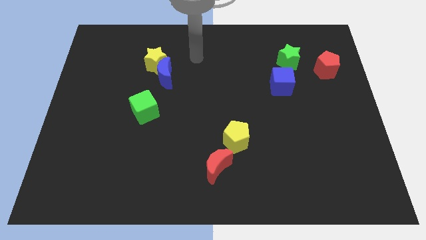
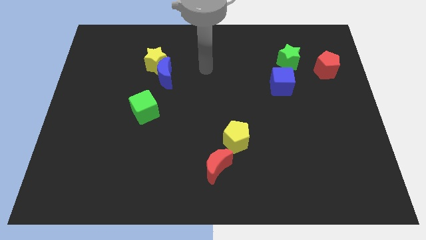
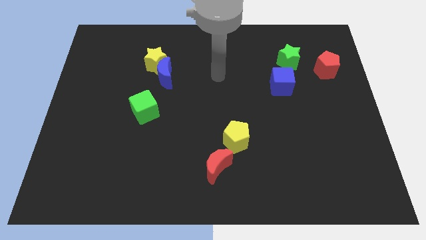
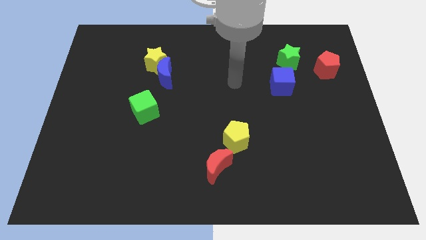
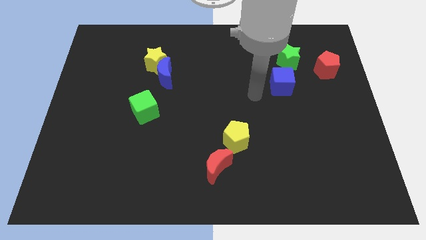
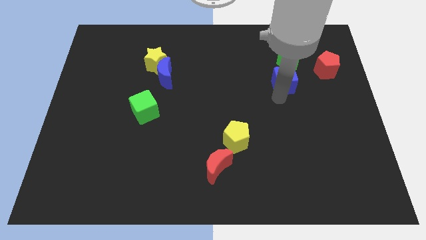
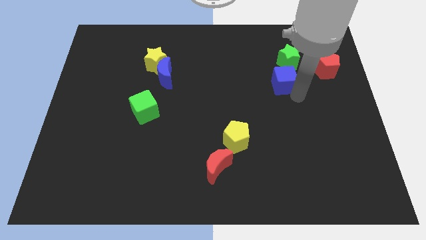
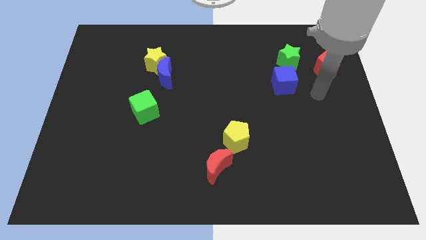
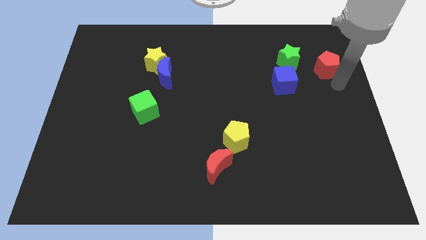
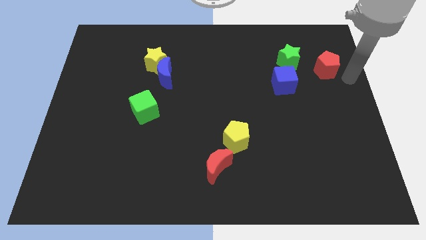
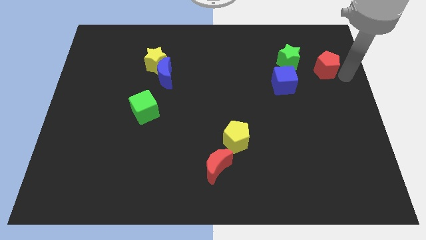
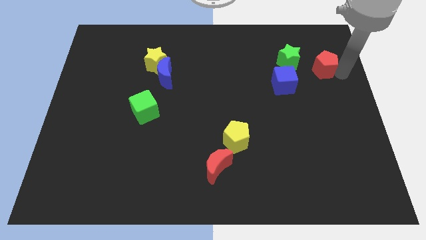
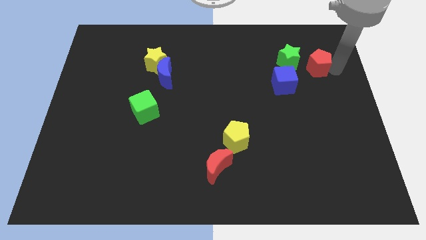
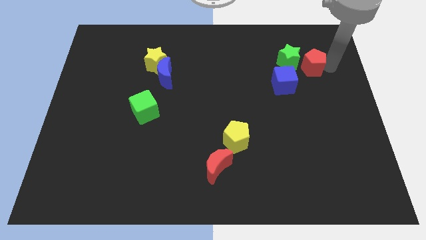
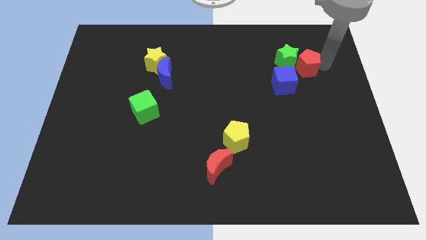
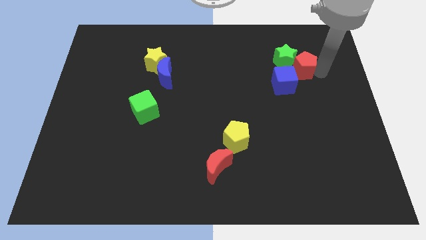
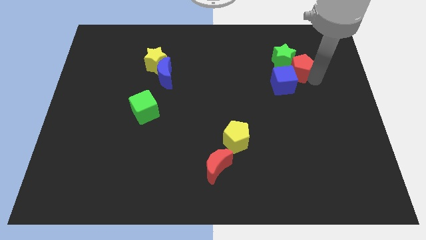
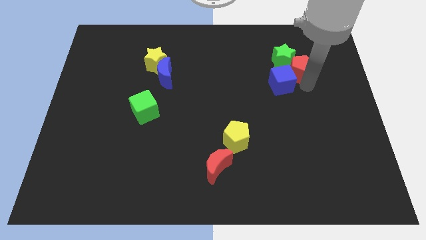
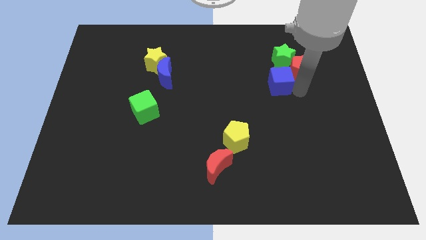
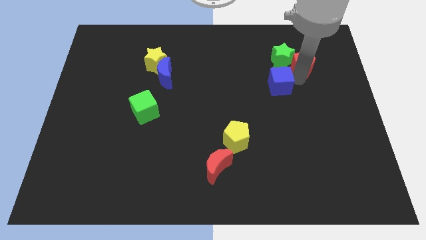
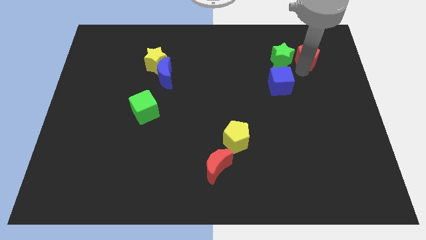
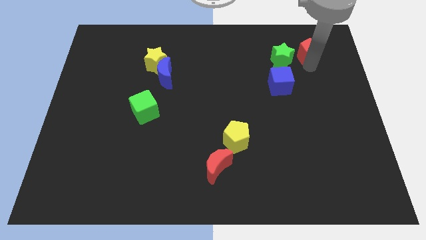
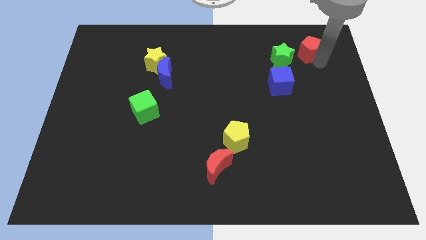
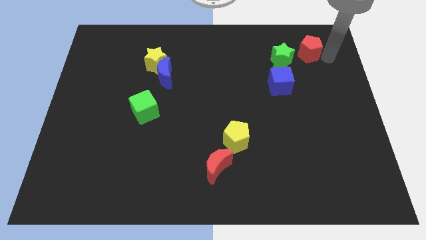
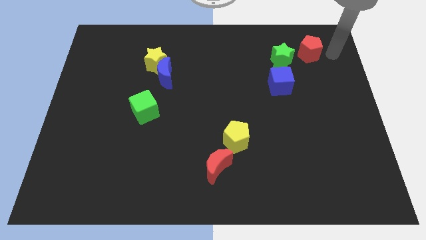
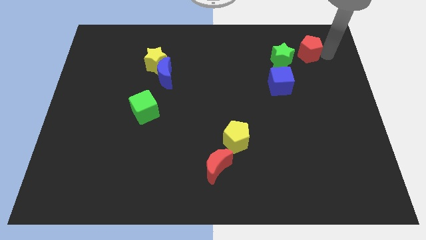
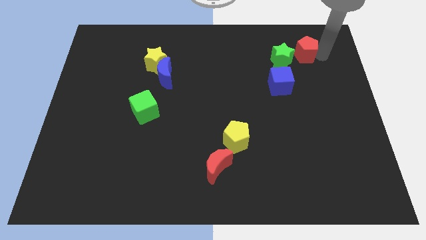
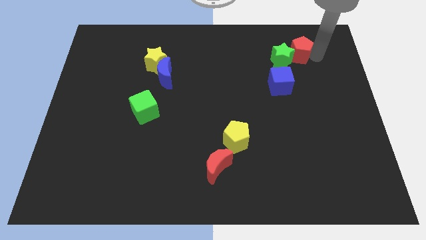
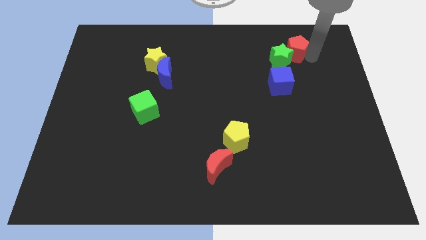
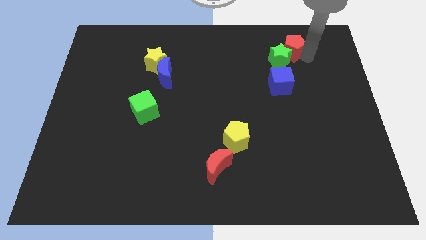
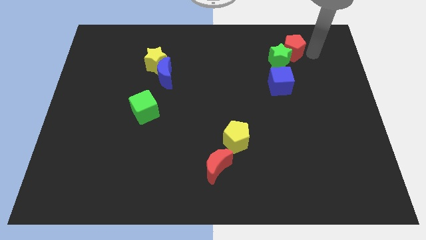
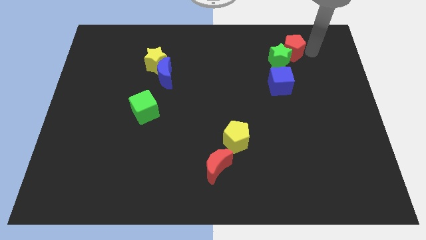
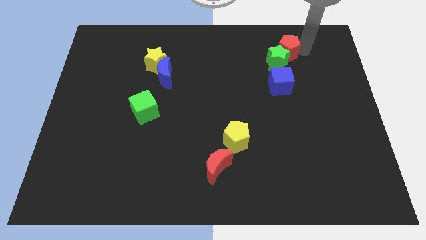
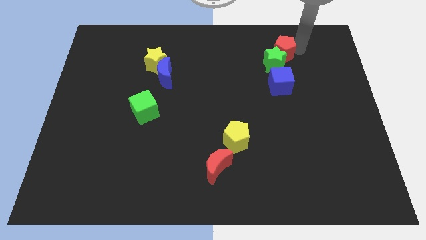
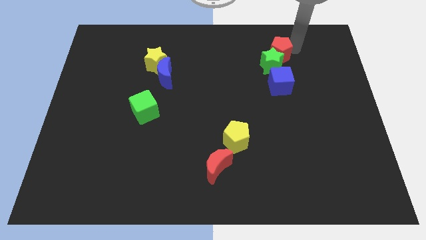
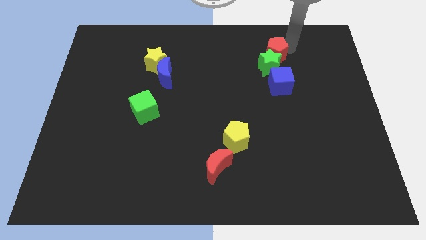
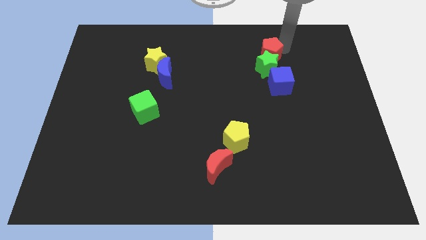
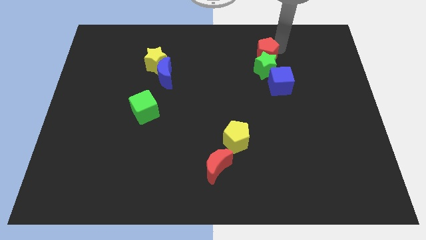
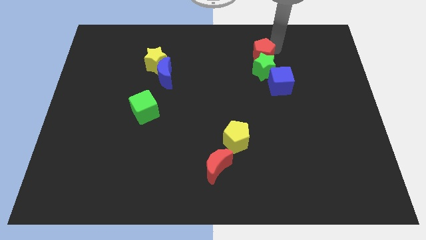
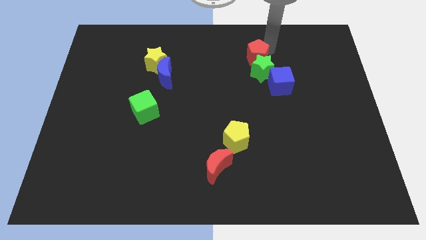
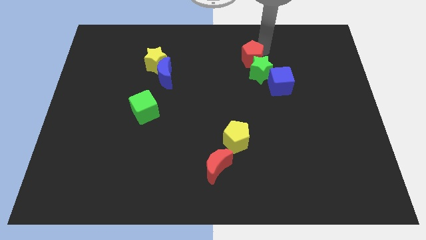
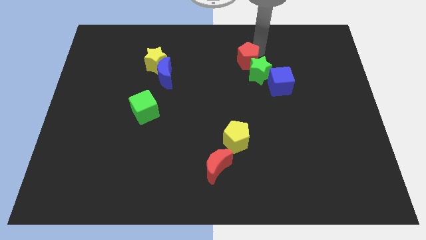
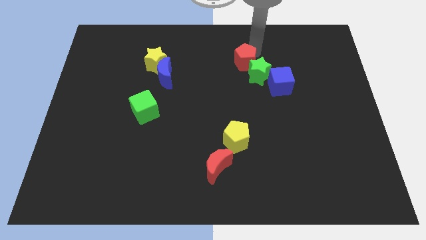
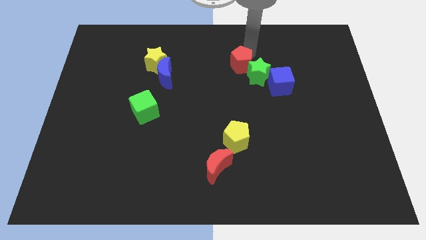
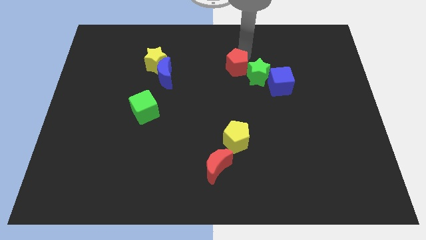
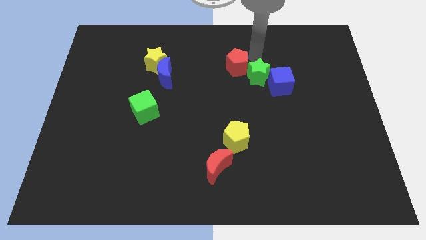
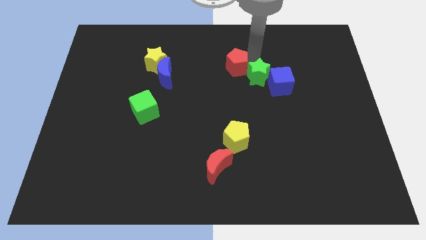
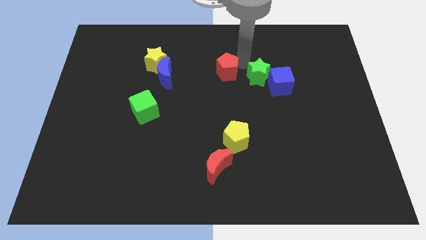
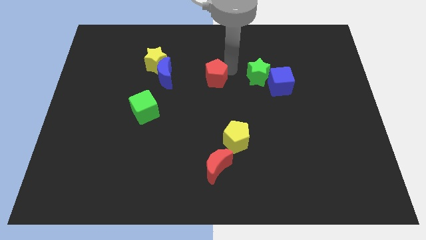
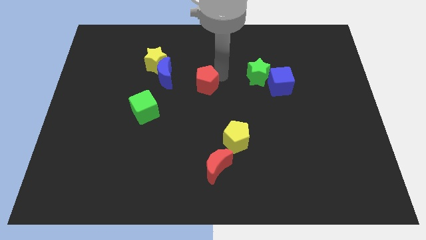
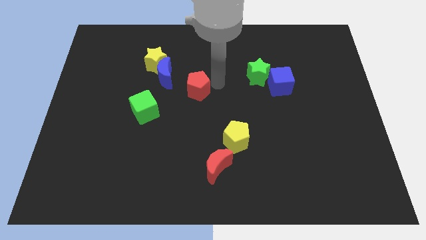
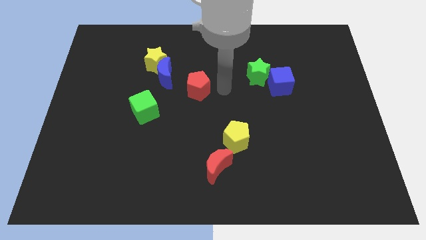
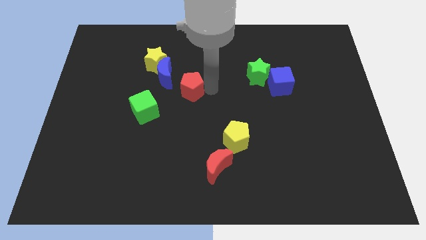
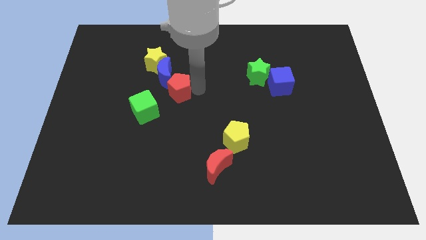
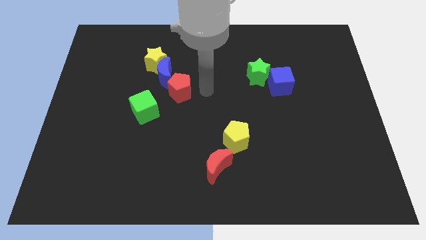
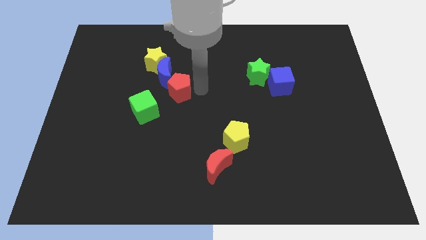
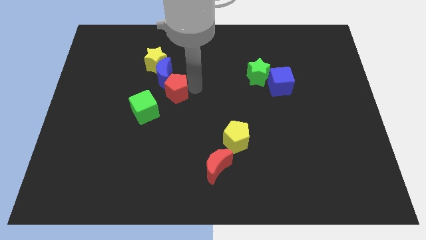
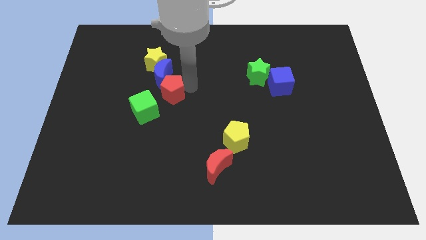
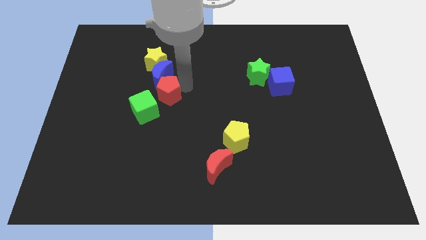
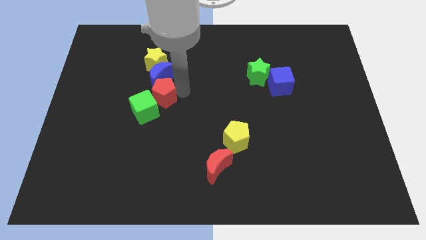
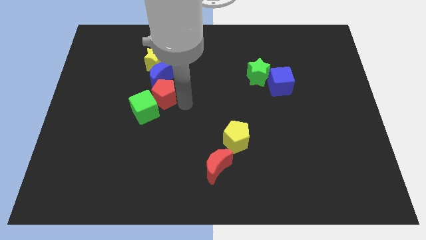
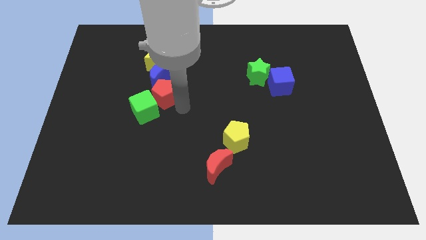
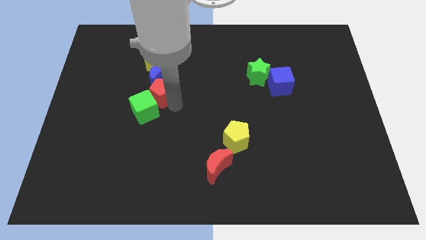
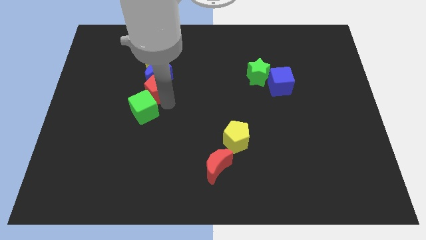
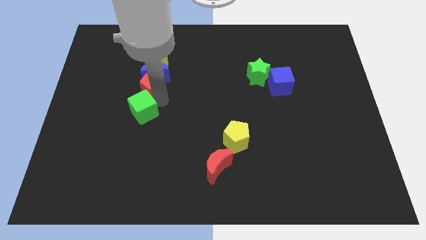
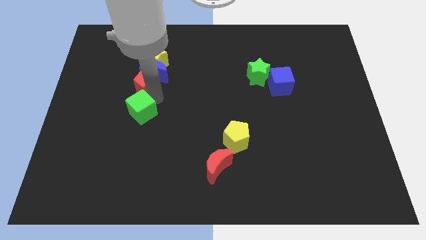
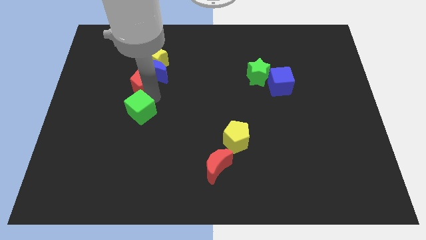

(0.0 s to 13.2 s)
put the red pentagon to the bottom left side of the yellow star

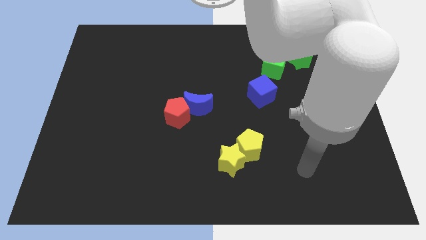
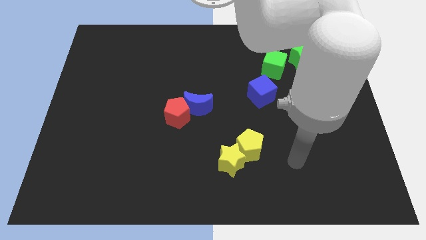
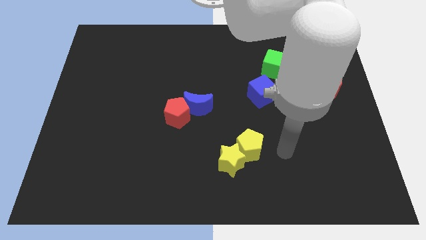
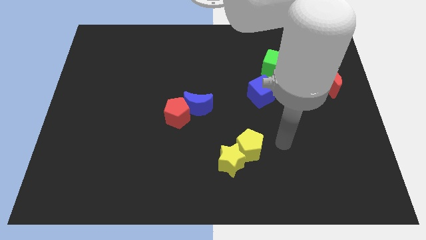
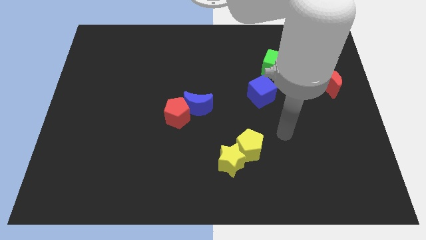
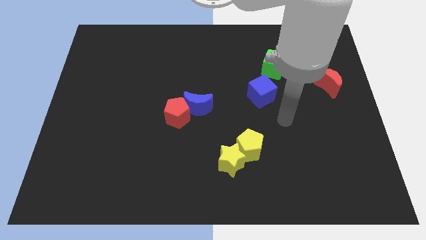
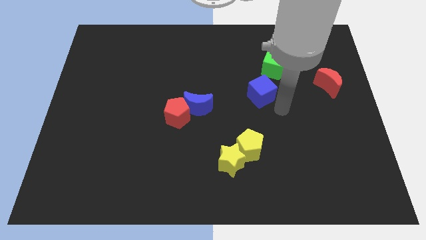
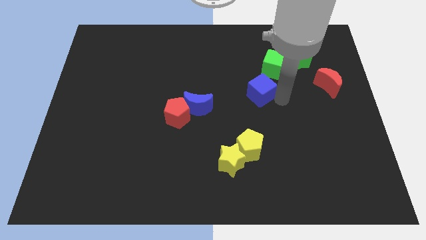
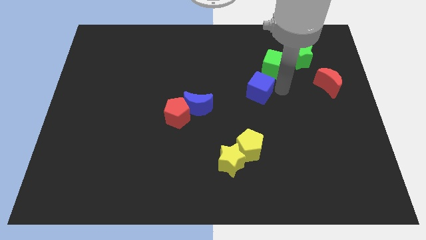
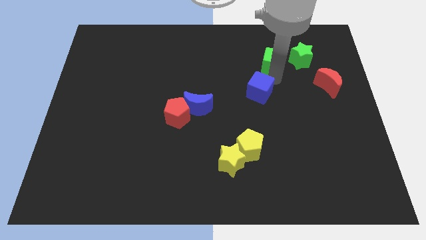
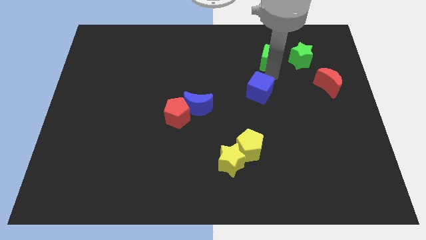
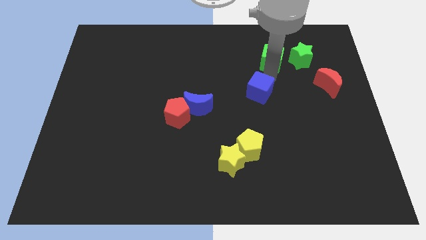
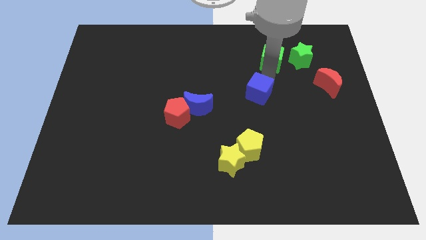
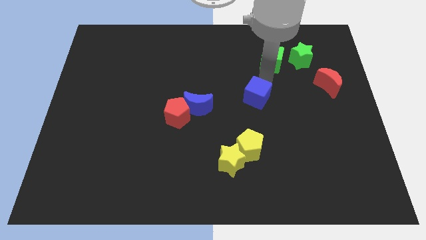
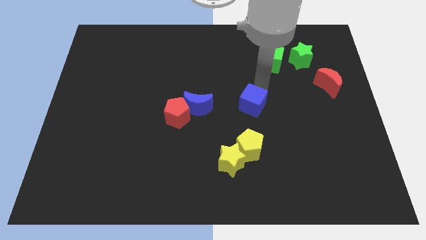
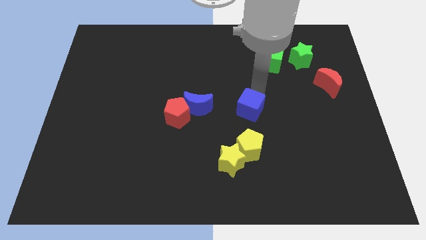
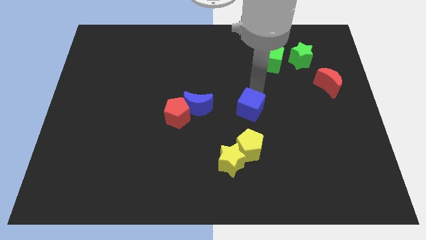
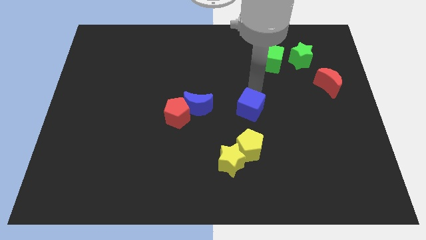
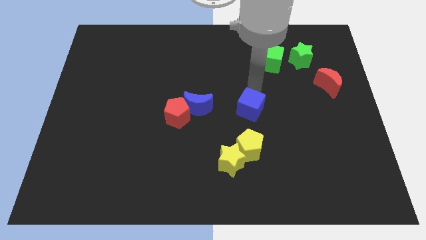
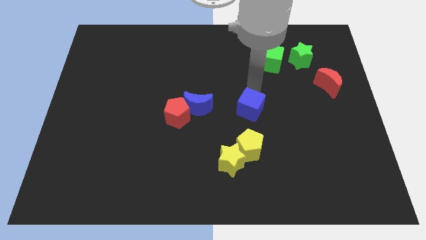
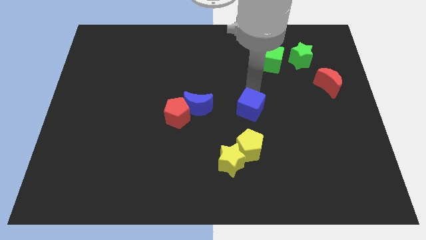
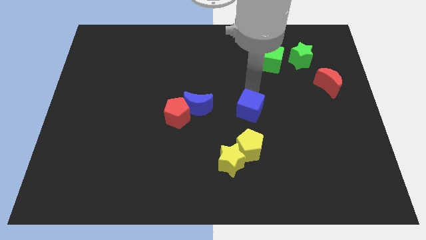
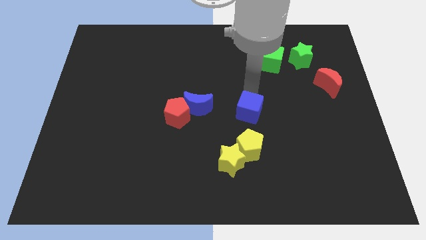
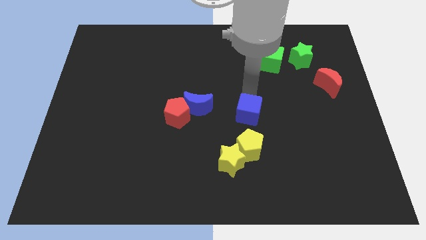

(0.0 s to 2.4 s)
put the blue cube to the right side of the red pentagon
